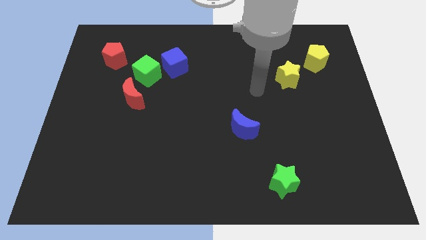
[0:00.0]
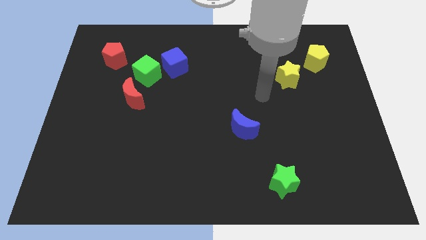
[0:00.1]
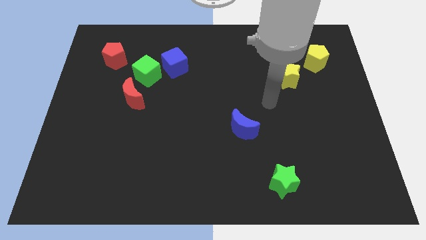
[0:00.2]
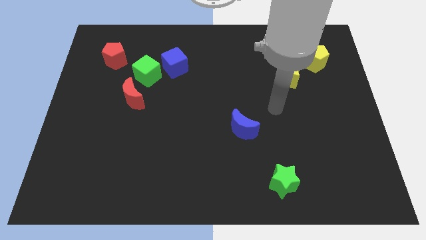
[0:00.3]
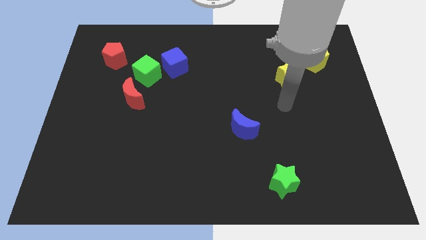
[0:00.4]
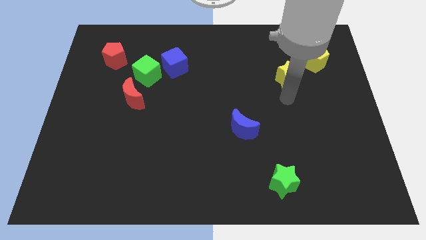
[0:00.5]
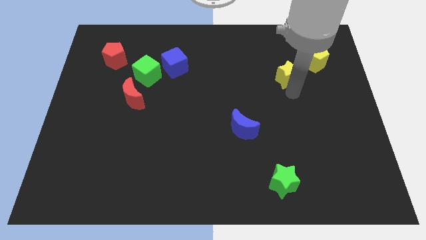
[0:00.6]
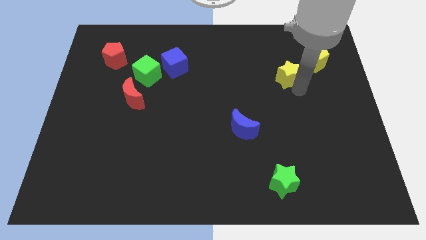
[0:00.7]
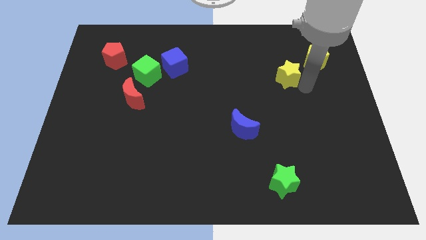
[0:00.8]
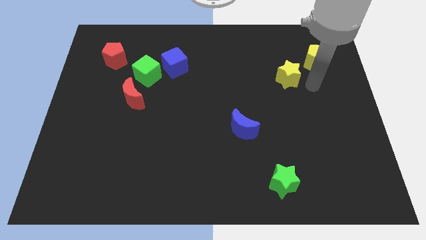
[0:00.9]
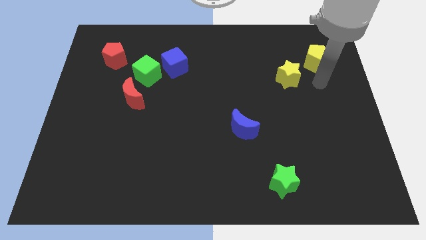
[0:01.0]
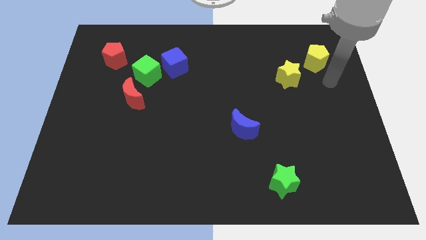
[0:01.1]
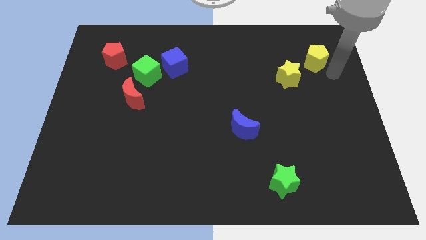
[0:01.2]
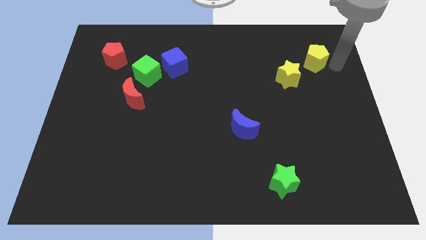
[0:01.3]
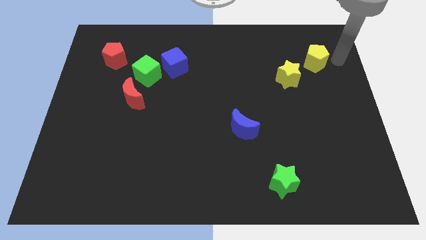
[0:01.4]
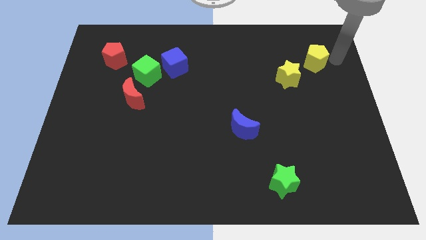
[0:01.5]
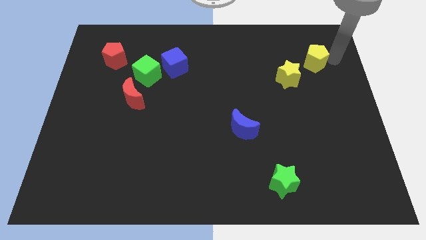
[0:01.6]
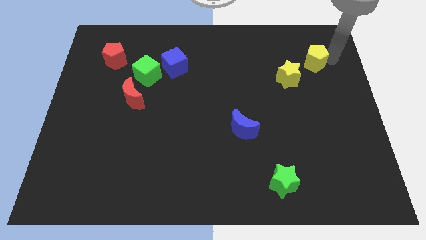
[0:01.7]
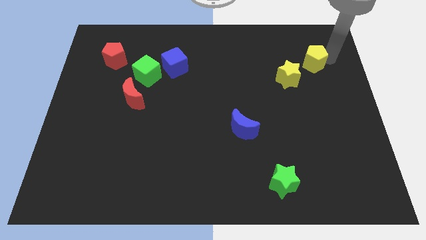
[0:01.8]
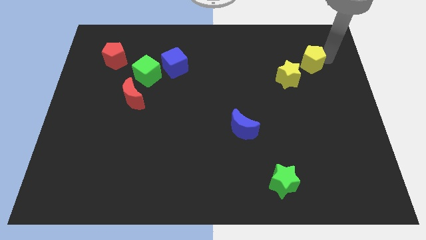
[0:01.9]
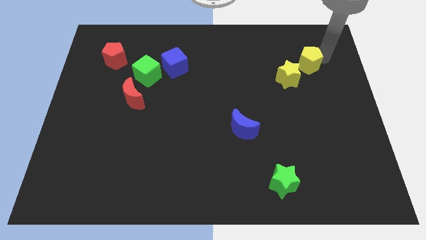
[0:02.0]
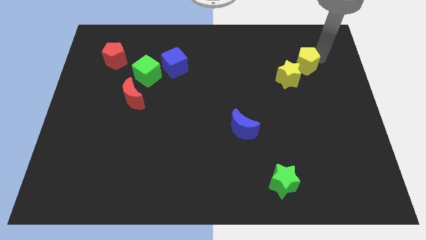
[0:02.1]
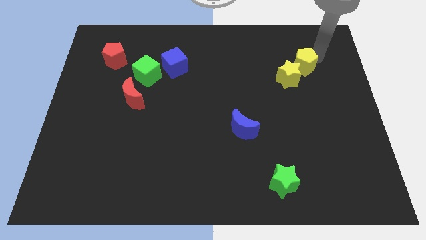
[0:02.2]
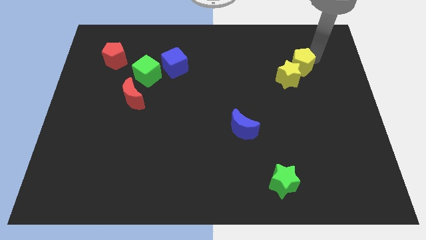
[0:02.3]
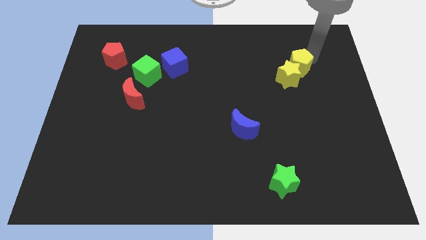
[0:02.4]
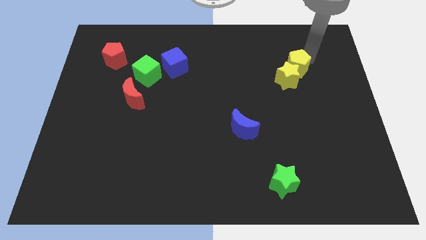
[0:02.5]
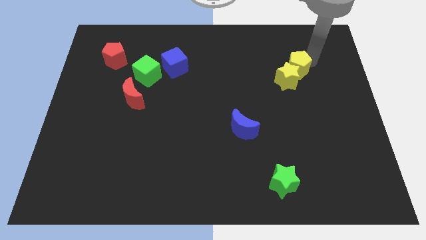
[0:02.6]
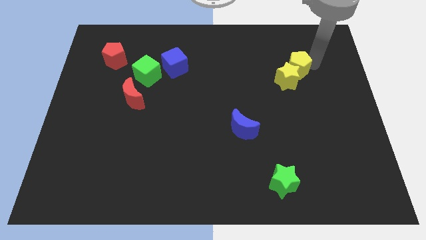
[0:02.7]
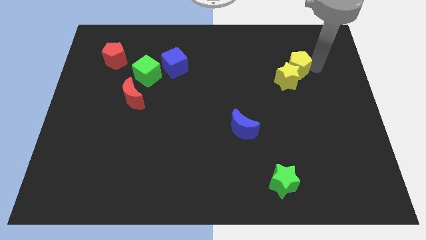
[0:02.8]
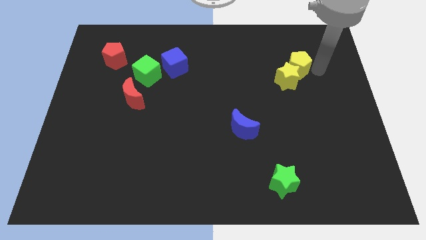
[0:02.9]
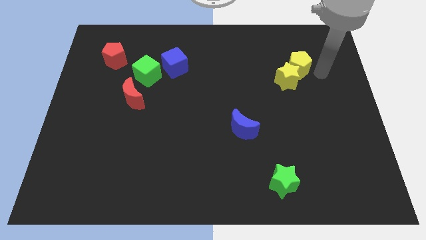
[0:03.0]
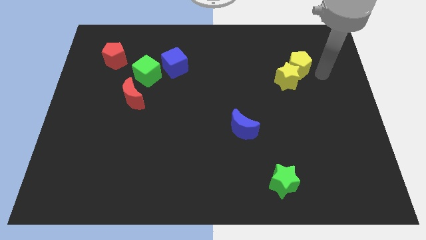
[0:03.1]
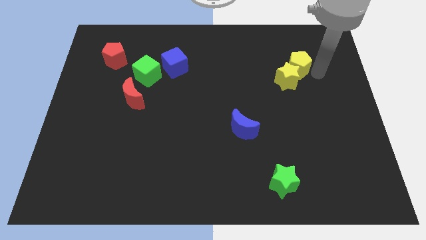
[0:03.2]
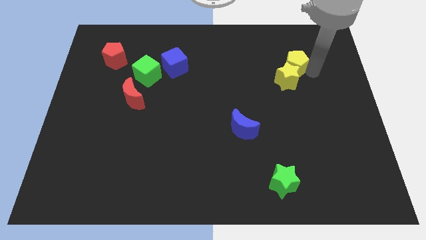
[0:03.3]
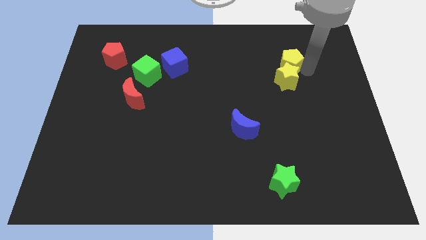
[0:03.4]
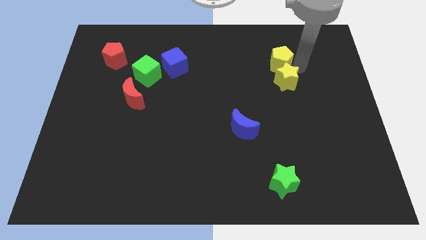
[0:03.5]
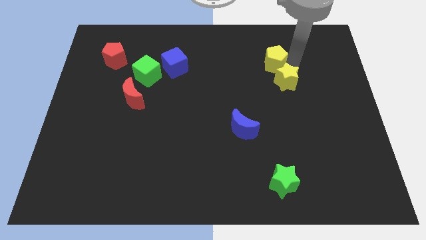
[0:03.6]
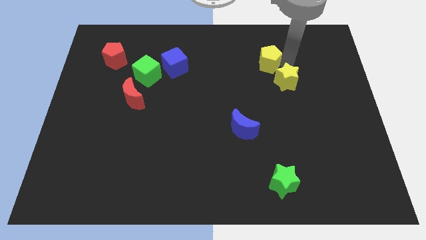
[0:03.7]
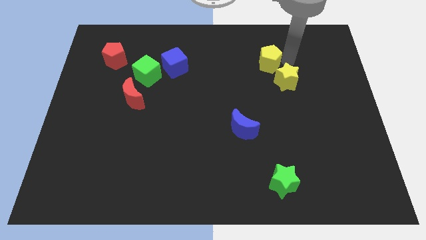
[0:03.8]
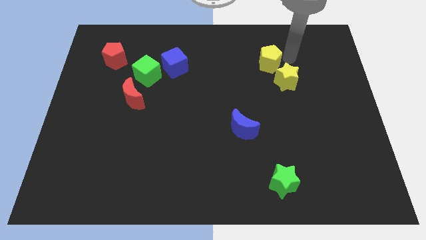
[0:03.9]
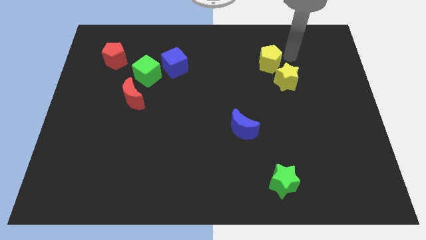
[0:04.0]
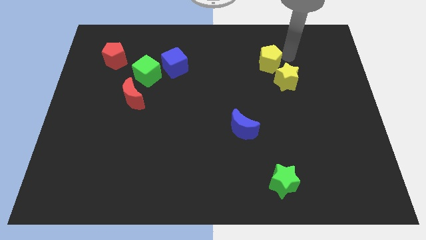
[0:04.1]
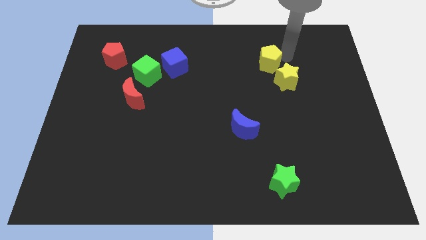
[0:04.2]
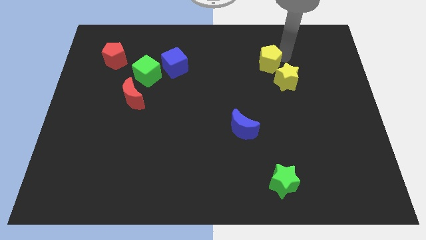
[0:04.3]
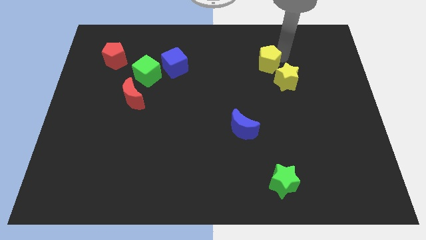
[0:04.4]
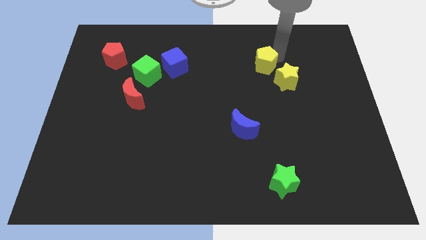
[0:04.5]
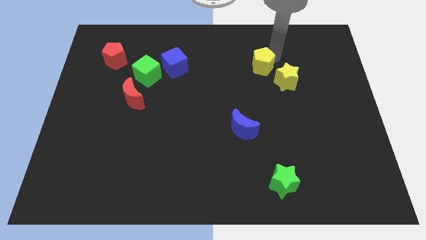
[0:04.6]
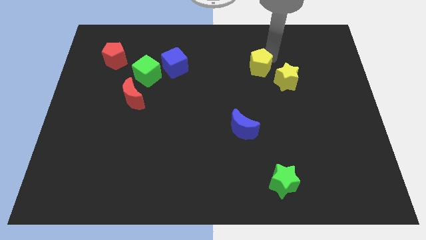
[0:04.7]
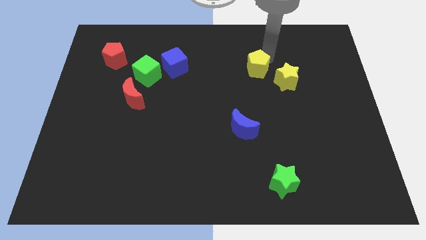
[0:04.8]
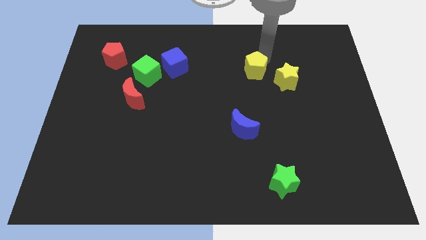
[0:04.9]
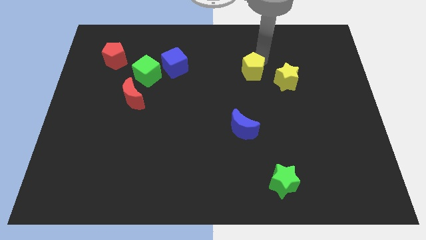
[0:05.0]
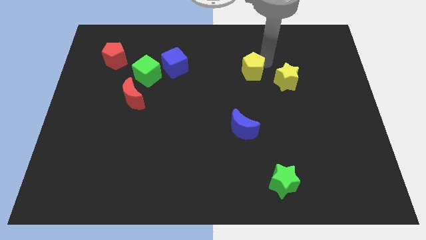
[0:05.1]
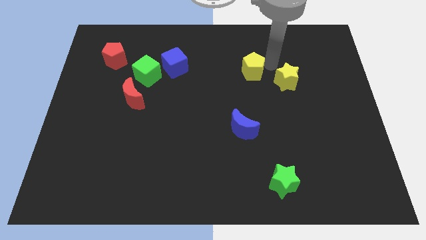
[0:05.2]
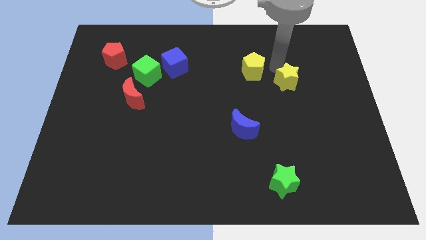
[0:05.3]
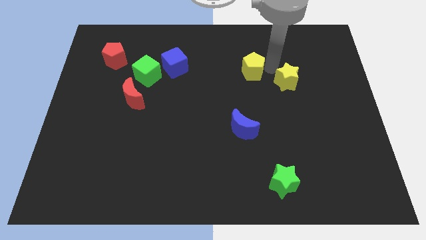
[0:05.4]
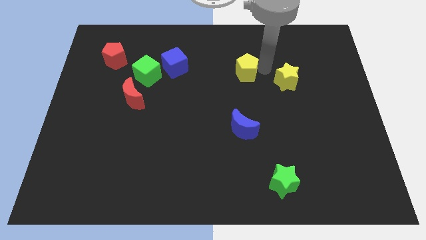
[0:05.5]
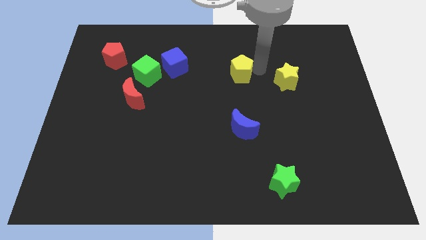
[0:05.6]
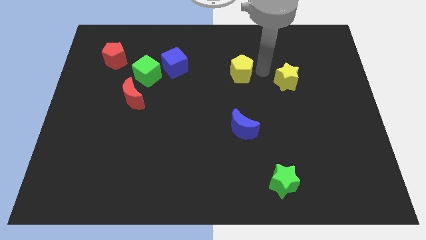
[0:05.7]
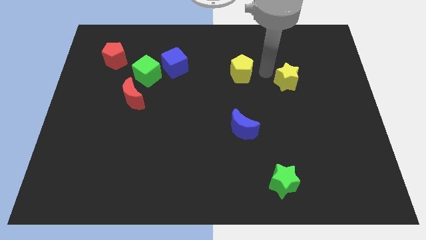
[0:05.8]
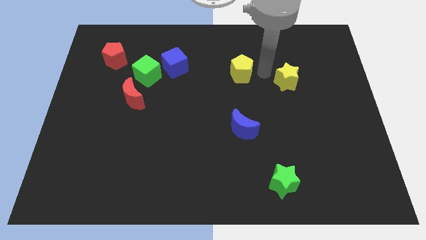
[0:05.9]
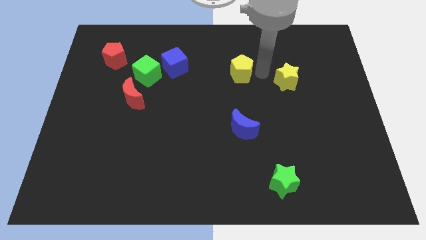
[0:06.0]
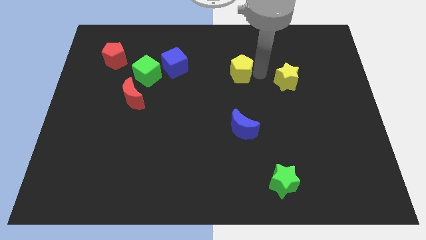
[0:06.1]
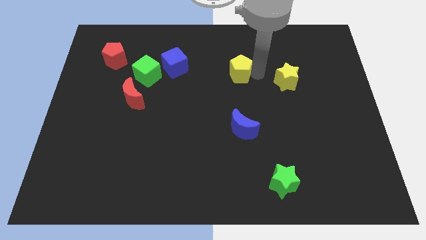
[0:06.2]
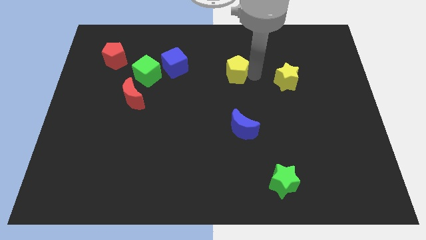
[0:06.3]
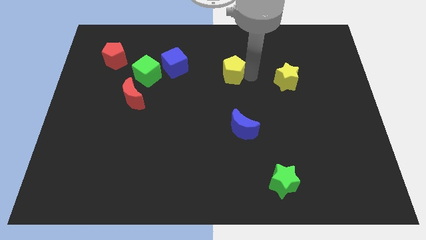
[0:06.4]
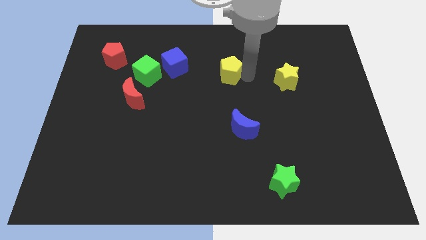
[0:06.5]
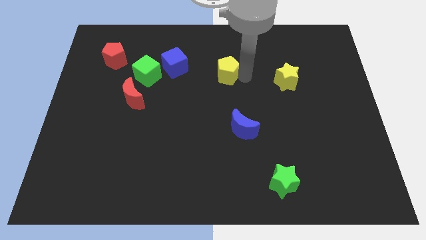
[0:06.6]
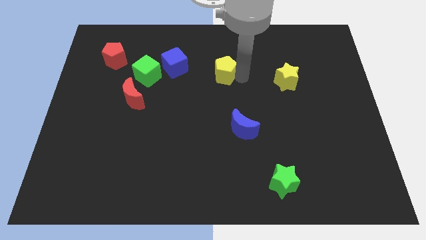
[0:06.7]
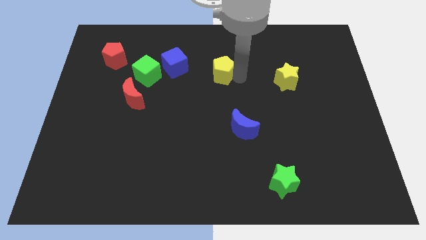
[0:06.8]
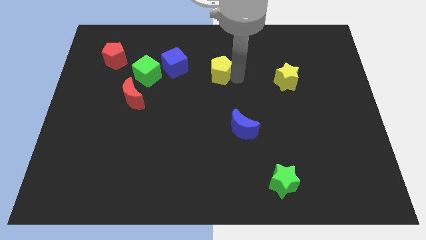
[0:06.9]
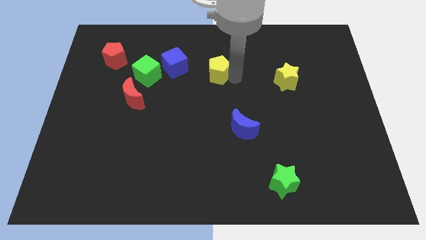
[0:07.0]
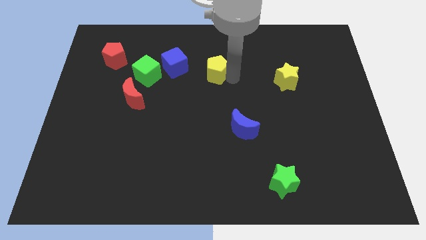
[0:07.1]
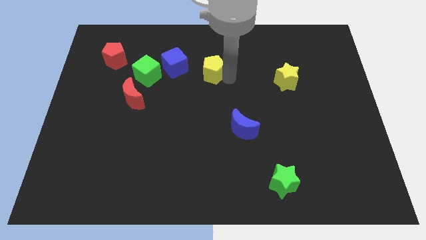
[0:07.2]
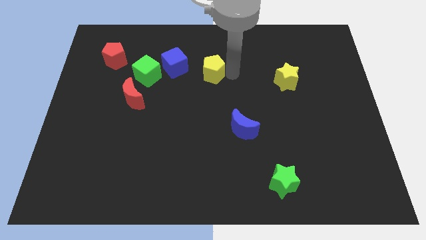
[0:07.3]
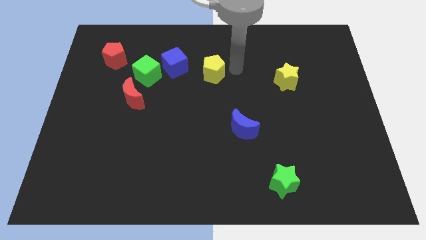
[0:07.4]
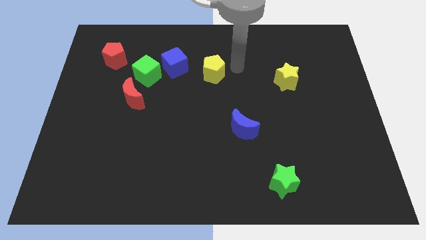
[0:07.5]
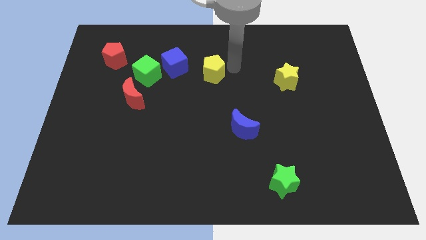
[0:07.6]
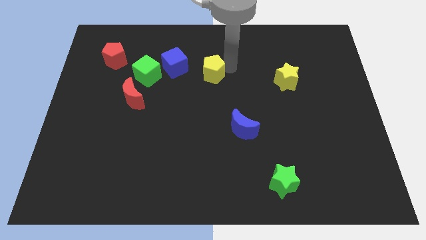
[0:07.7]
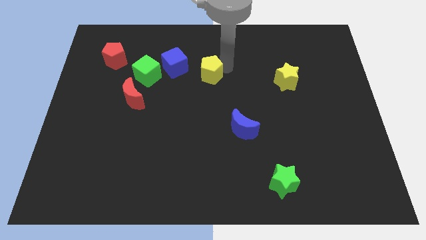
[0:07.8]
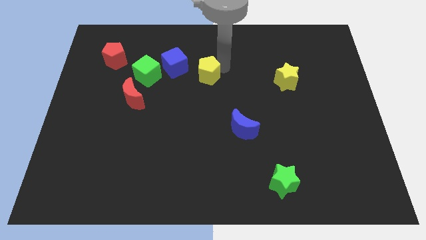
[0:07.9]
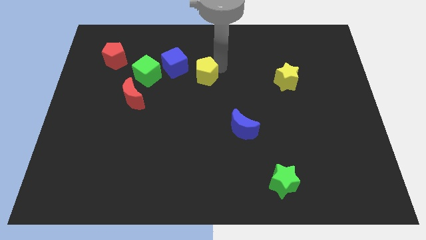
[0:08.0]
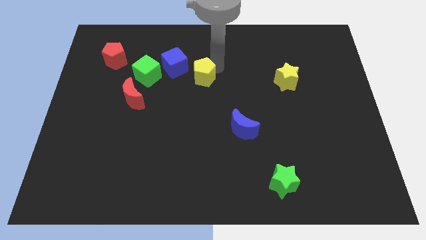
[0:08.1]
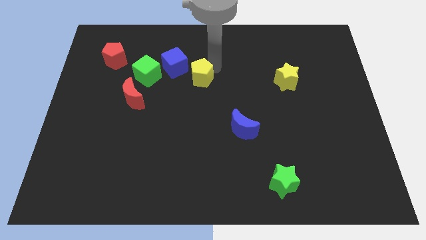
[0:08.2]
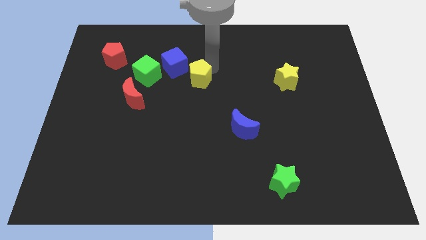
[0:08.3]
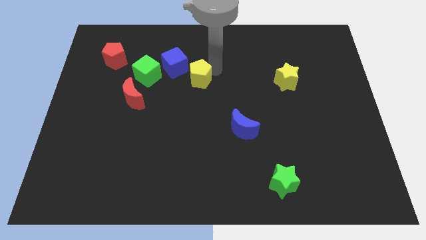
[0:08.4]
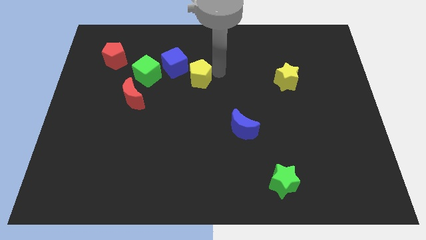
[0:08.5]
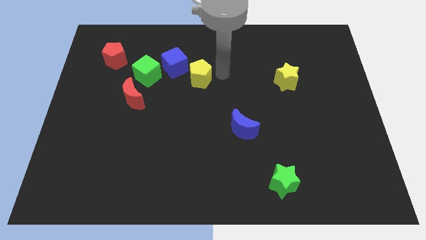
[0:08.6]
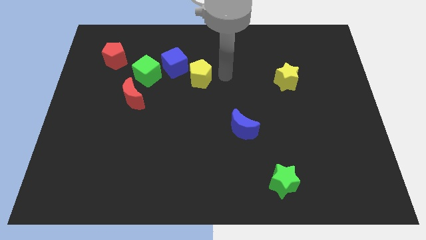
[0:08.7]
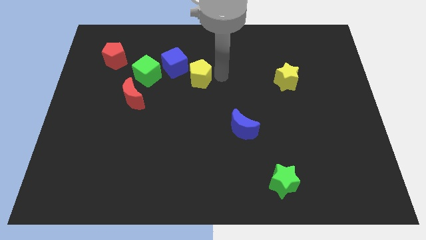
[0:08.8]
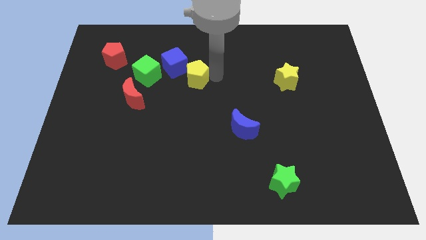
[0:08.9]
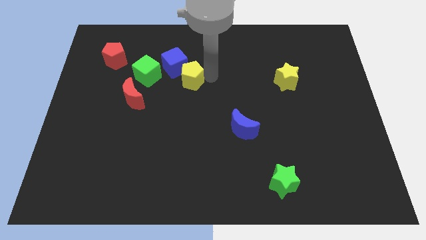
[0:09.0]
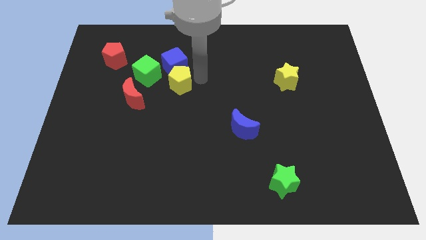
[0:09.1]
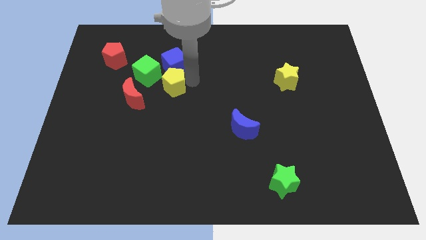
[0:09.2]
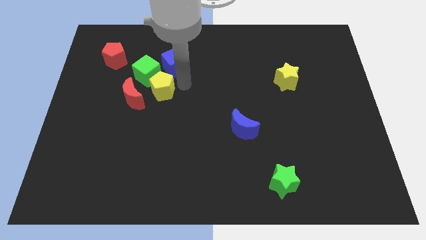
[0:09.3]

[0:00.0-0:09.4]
push the yellow pentagon next to the green cube
